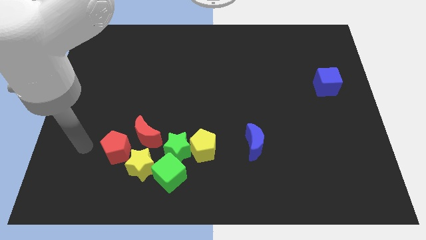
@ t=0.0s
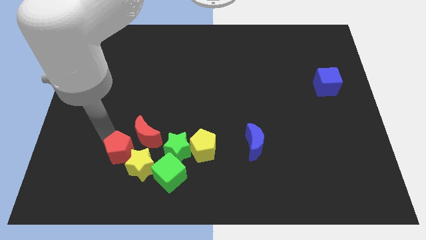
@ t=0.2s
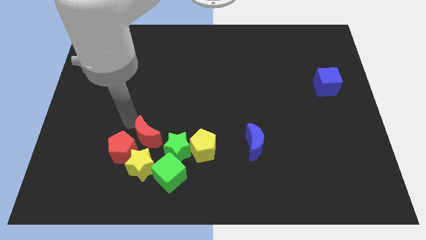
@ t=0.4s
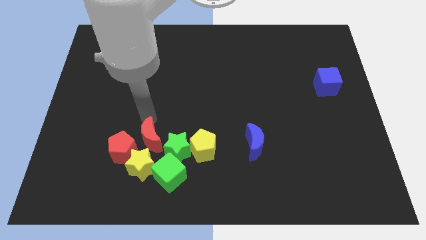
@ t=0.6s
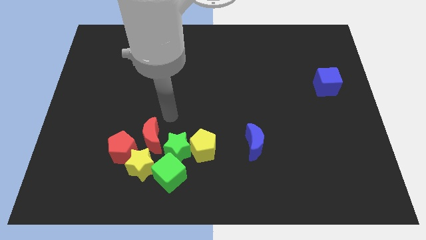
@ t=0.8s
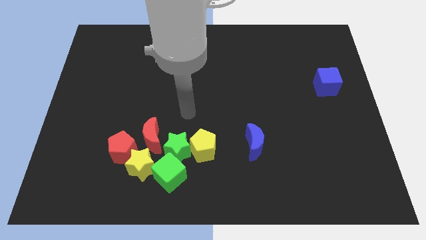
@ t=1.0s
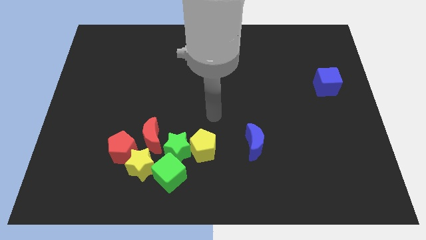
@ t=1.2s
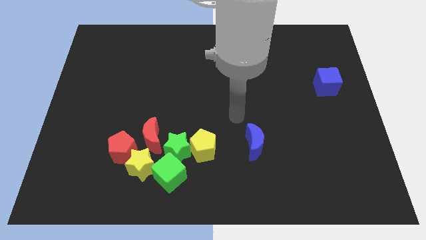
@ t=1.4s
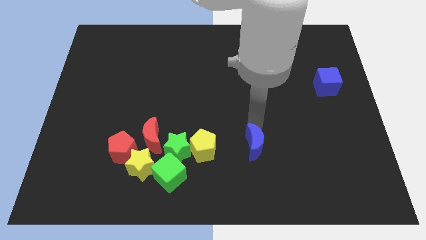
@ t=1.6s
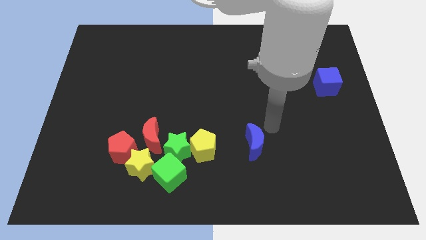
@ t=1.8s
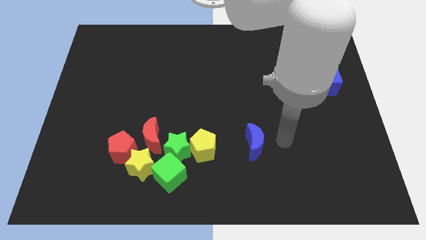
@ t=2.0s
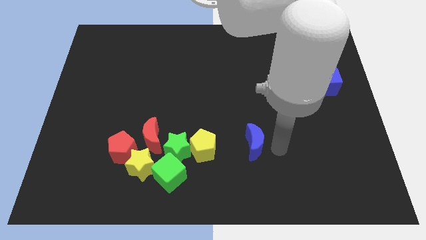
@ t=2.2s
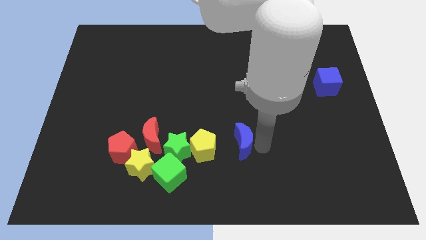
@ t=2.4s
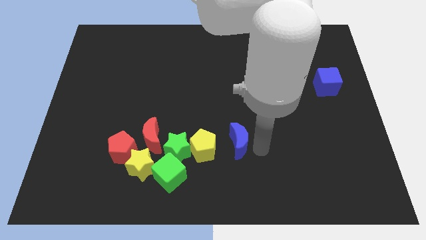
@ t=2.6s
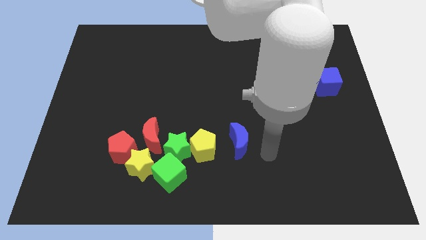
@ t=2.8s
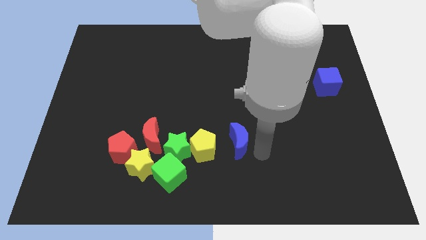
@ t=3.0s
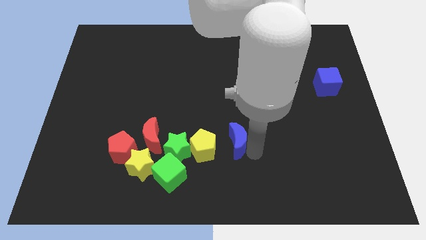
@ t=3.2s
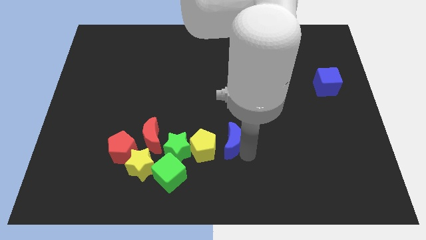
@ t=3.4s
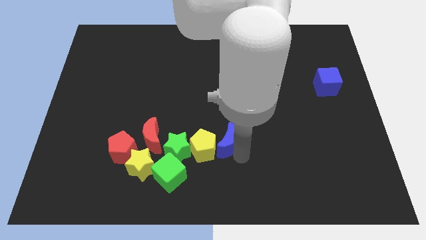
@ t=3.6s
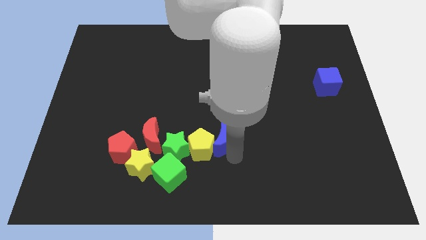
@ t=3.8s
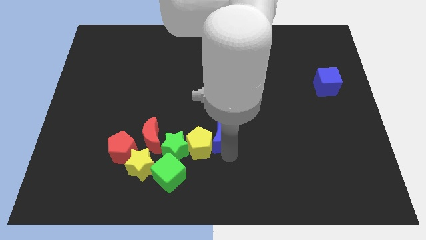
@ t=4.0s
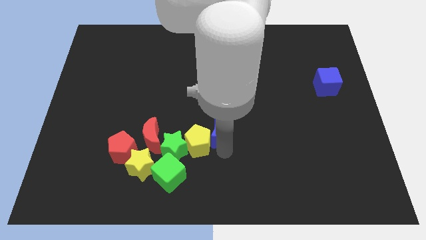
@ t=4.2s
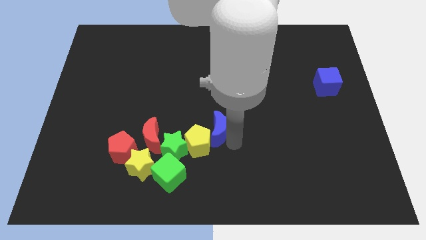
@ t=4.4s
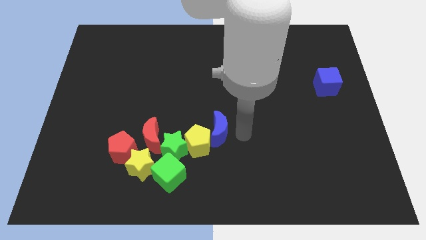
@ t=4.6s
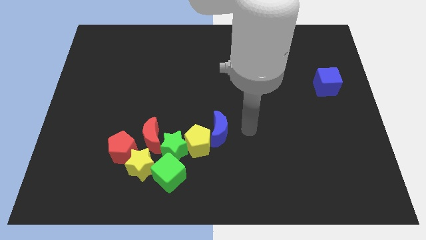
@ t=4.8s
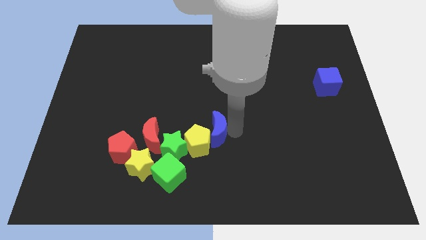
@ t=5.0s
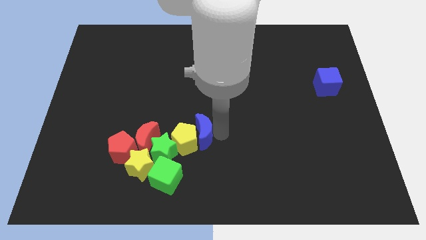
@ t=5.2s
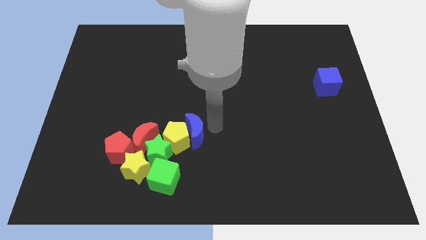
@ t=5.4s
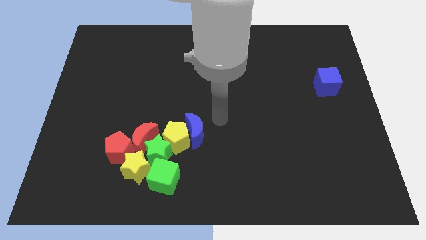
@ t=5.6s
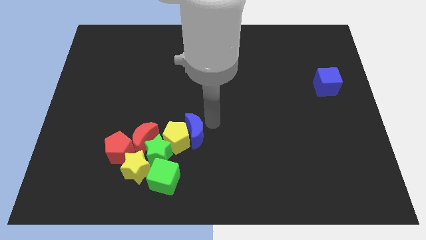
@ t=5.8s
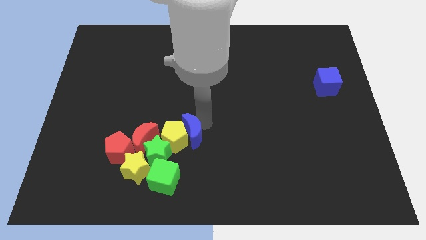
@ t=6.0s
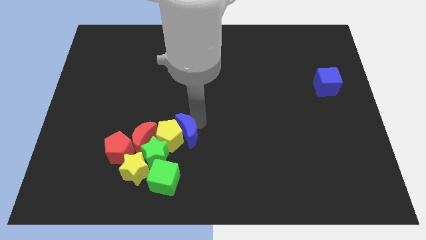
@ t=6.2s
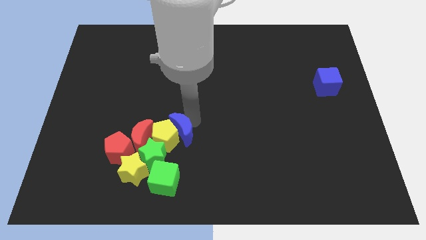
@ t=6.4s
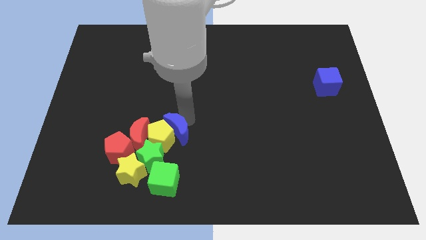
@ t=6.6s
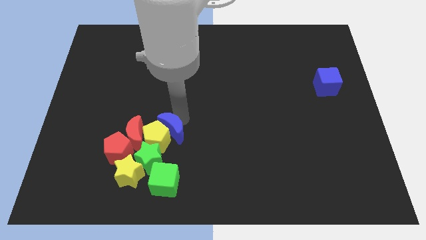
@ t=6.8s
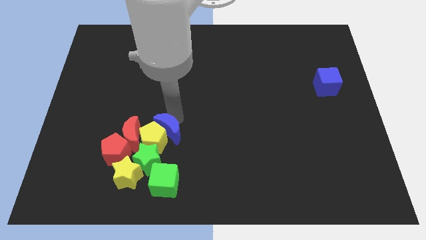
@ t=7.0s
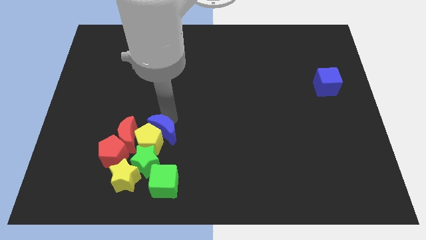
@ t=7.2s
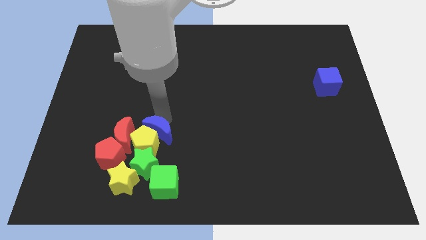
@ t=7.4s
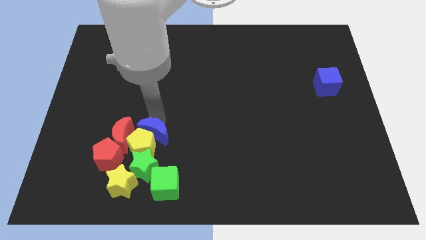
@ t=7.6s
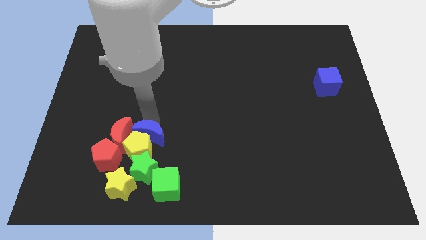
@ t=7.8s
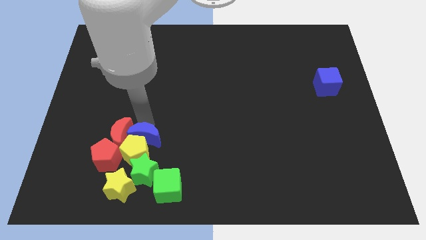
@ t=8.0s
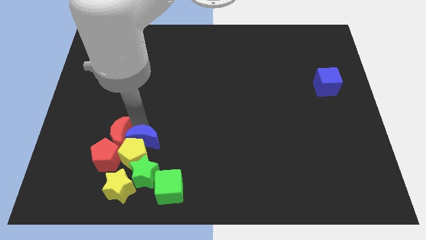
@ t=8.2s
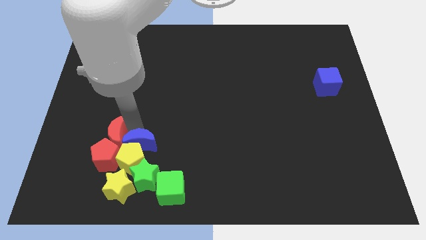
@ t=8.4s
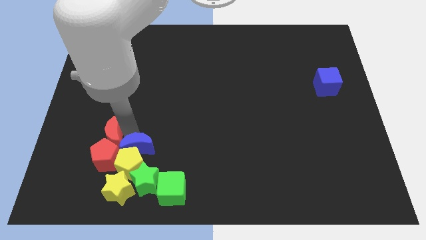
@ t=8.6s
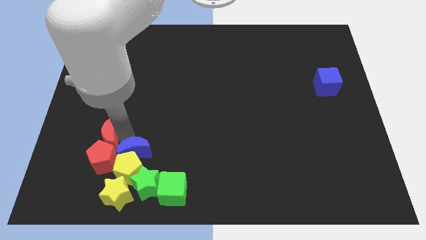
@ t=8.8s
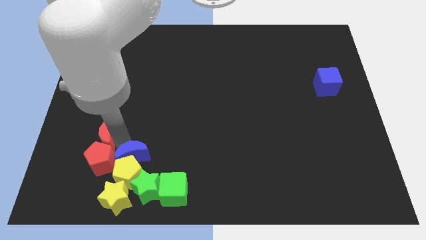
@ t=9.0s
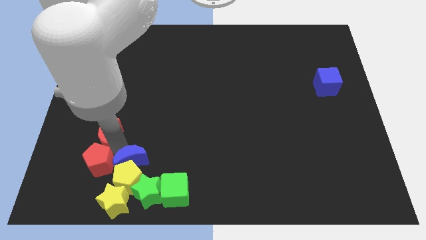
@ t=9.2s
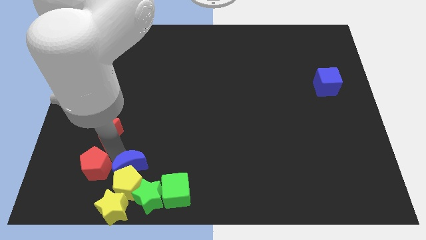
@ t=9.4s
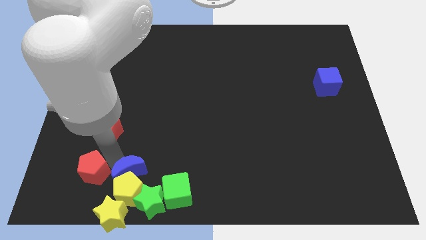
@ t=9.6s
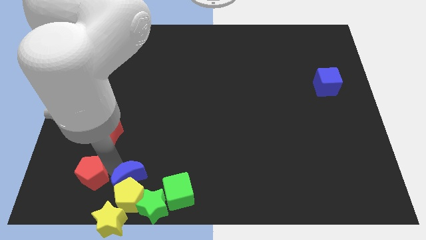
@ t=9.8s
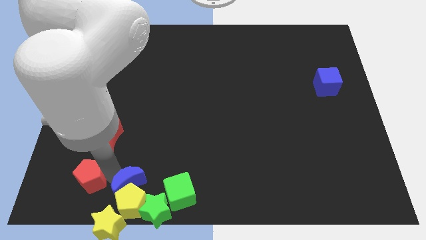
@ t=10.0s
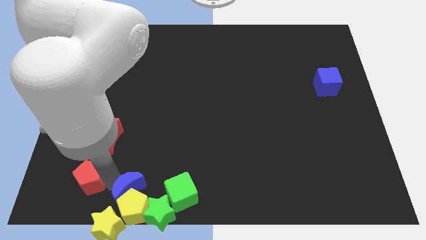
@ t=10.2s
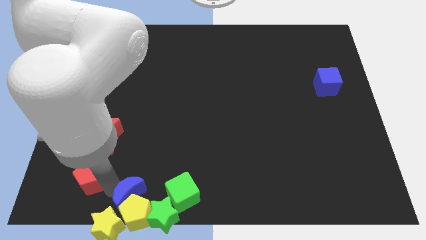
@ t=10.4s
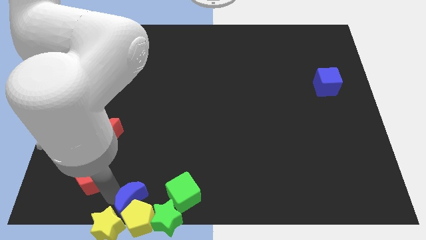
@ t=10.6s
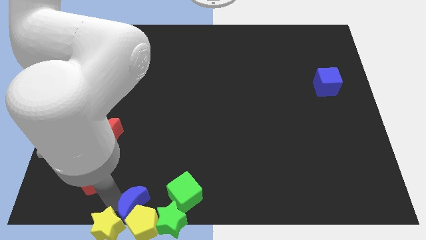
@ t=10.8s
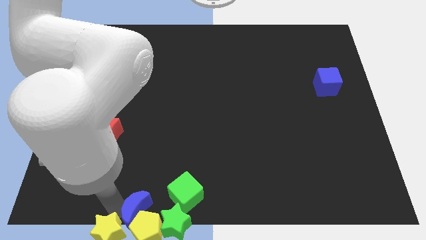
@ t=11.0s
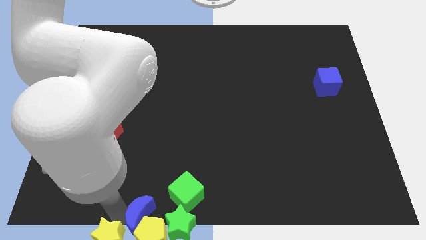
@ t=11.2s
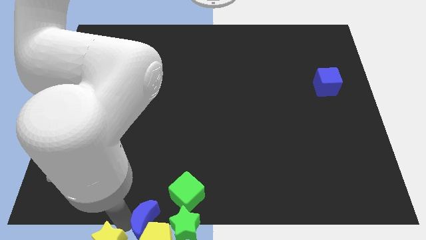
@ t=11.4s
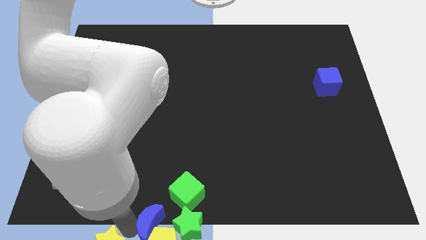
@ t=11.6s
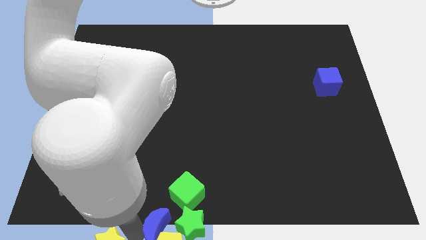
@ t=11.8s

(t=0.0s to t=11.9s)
put the blue moon close to the green star

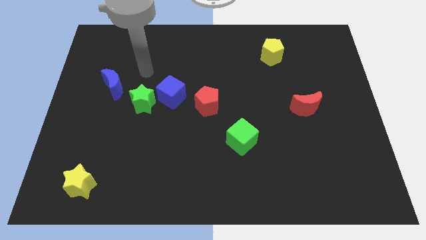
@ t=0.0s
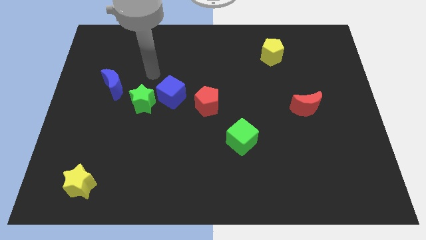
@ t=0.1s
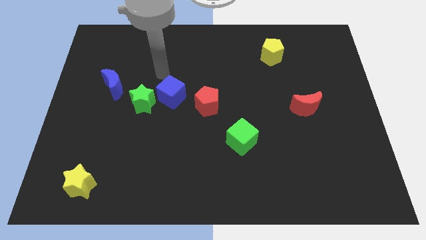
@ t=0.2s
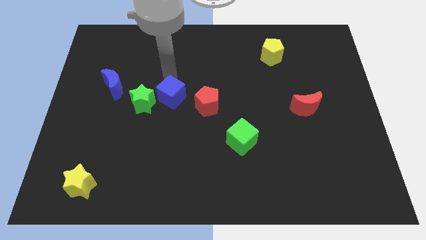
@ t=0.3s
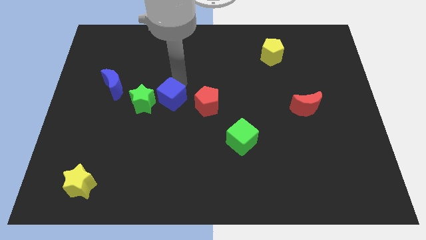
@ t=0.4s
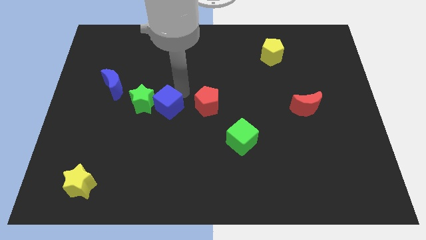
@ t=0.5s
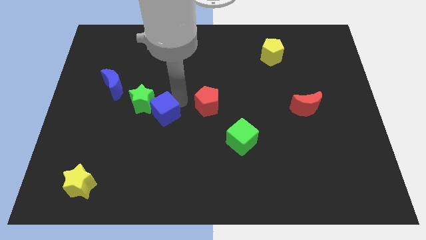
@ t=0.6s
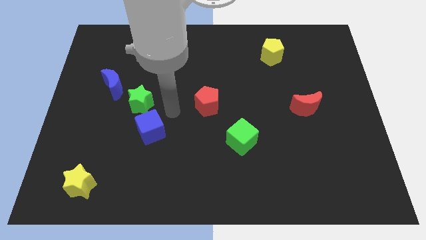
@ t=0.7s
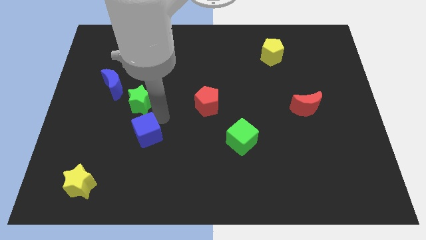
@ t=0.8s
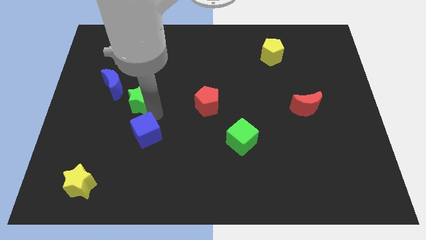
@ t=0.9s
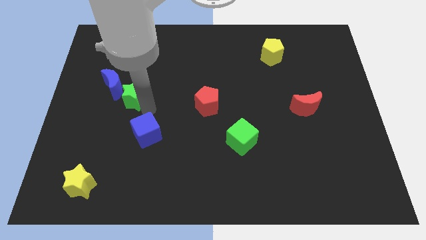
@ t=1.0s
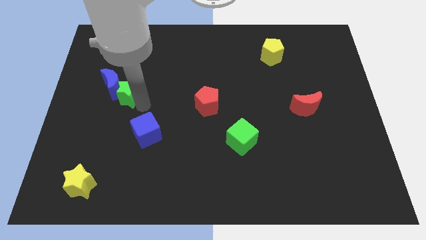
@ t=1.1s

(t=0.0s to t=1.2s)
put the green star next to the blue moon
